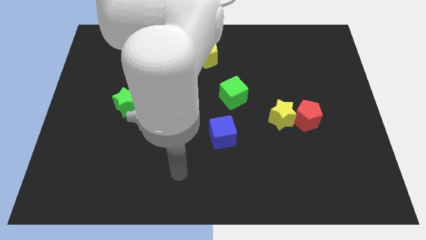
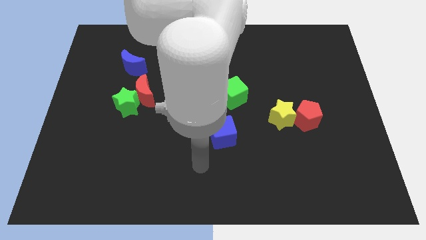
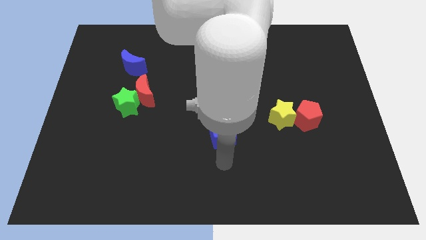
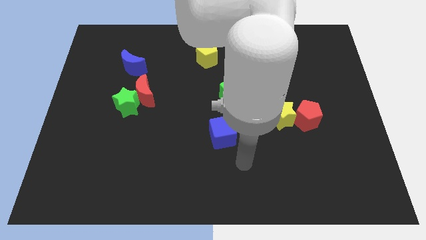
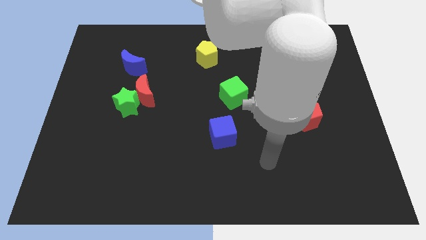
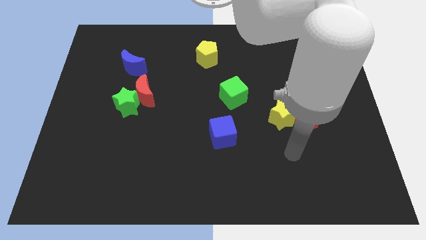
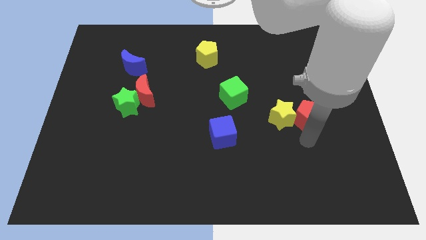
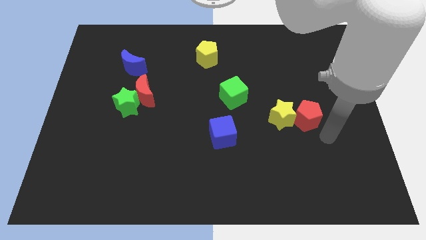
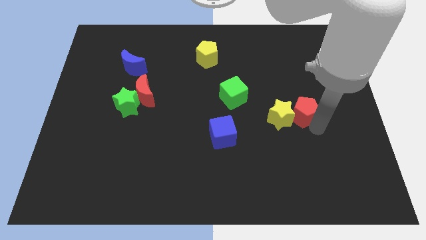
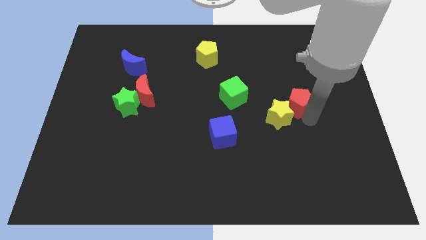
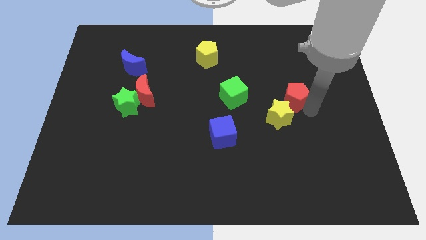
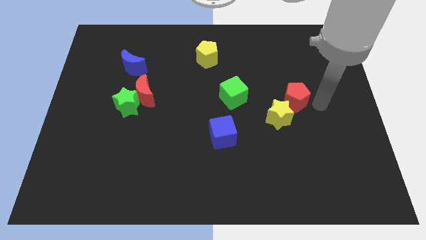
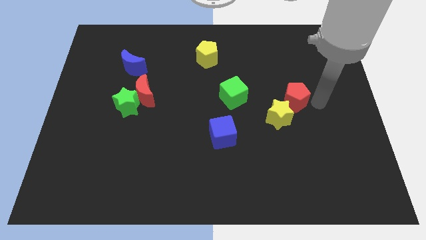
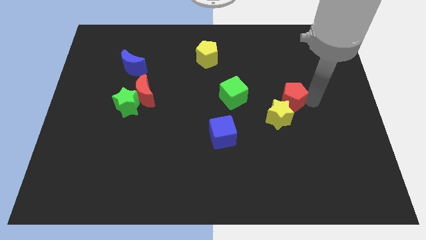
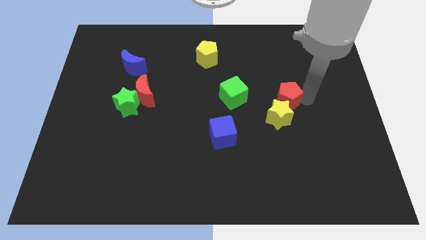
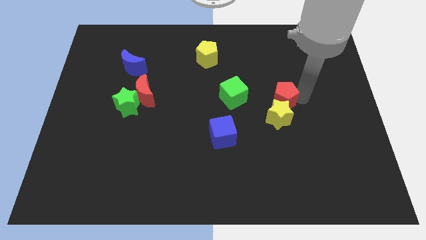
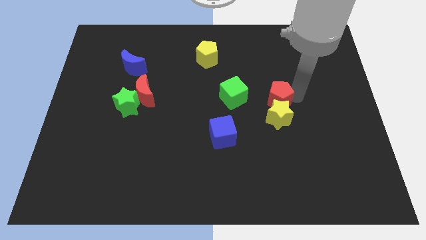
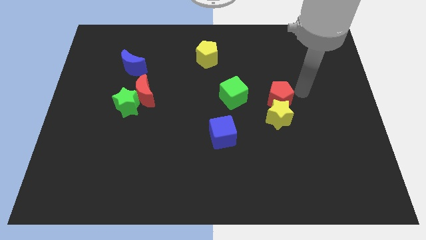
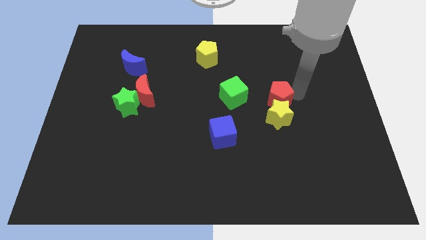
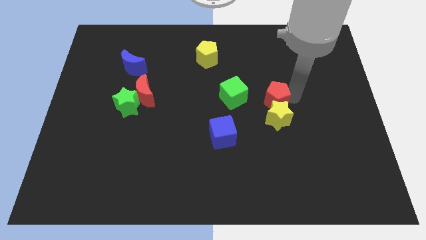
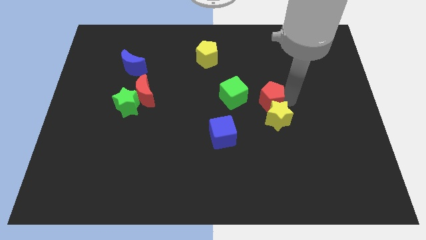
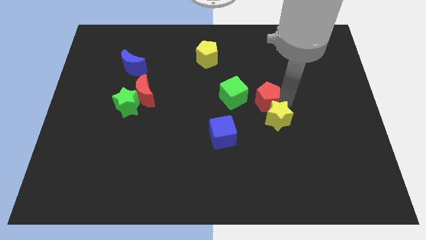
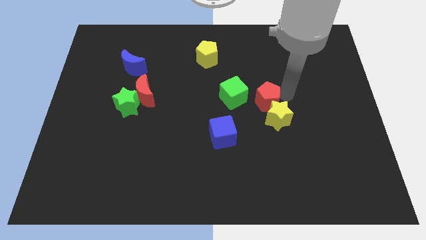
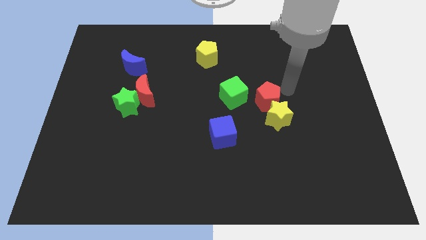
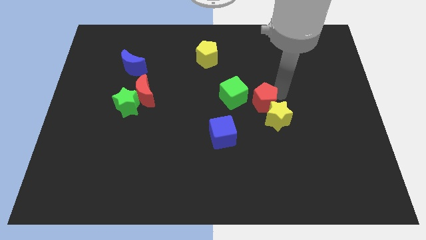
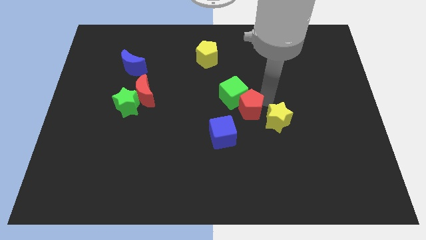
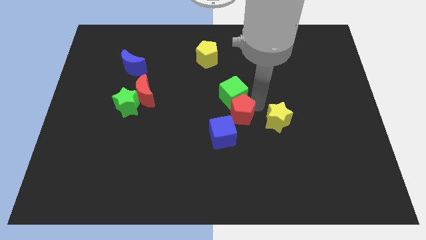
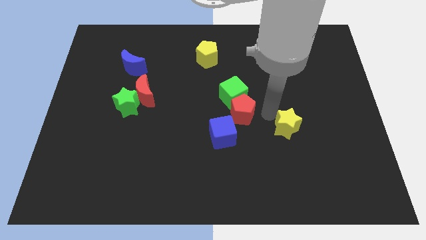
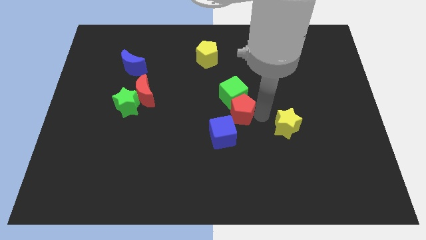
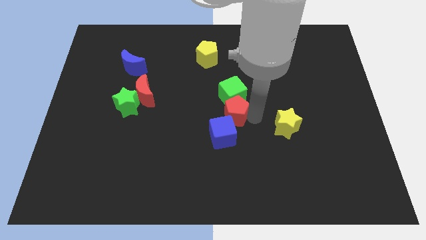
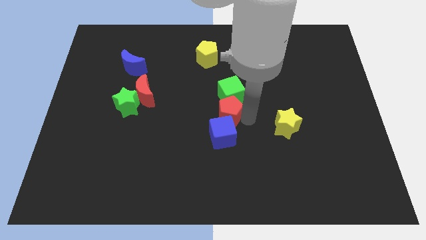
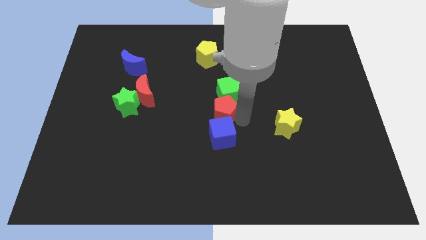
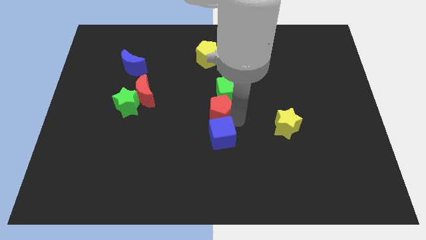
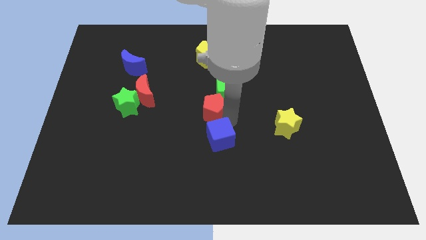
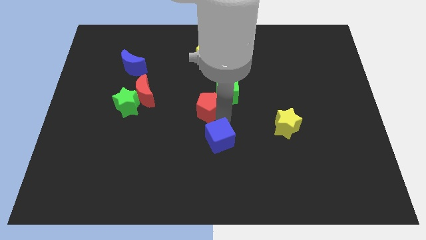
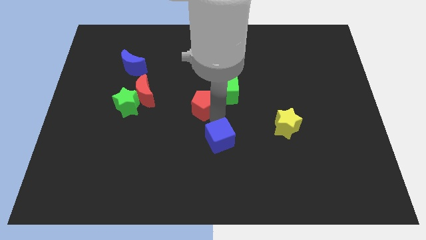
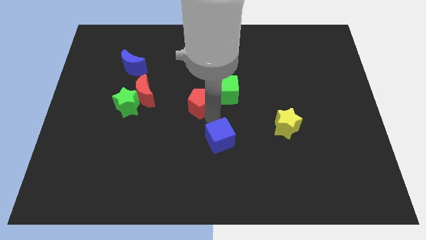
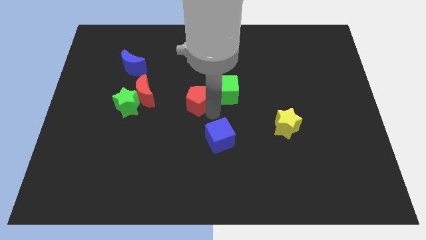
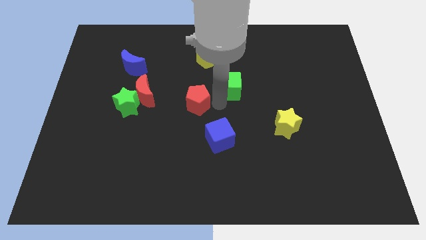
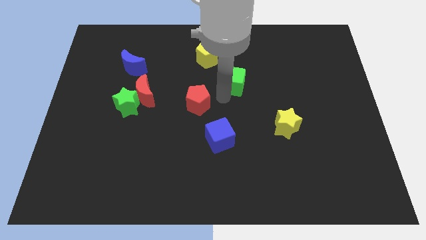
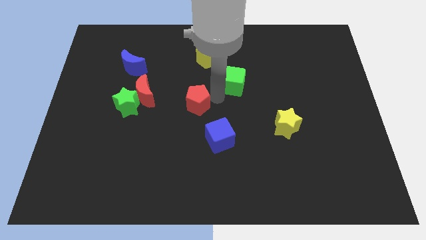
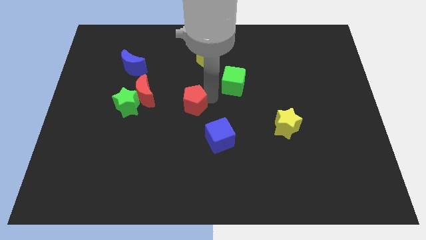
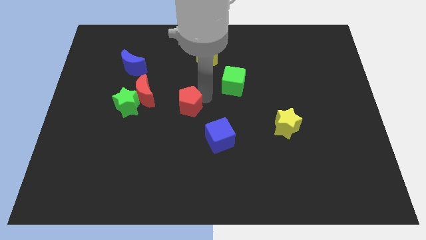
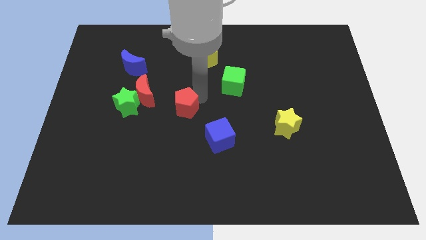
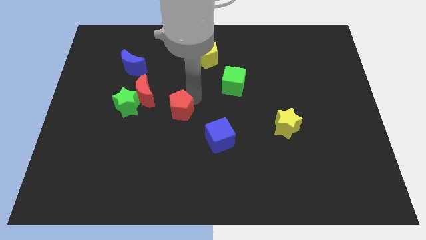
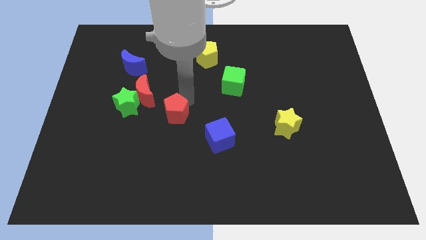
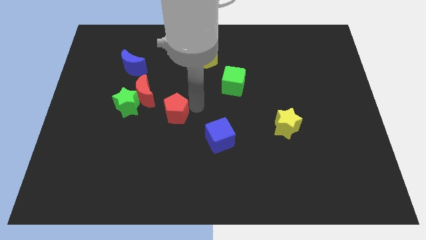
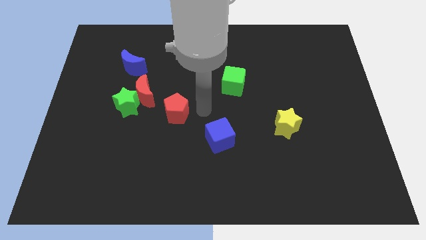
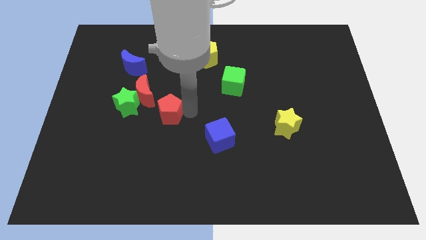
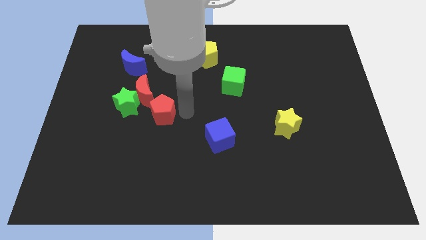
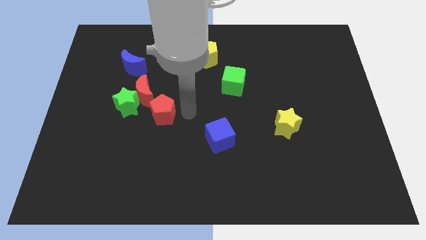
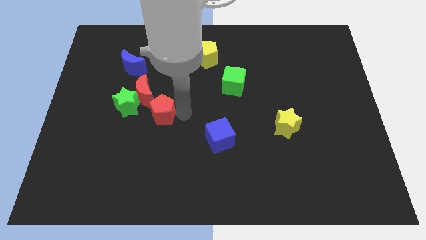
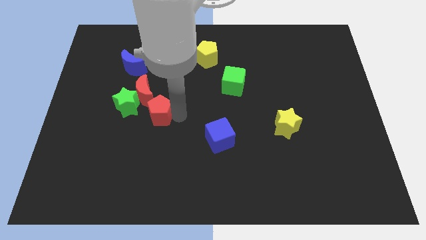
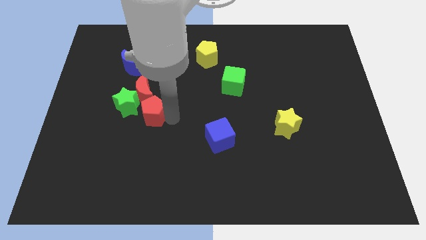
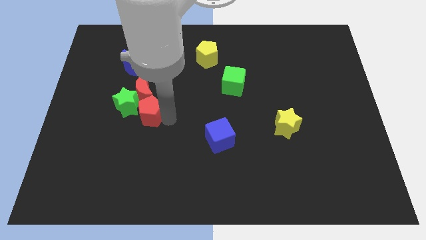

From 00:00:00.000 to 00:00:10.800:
slide the red pentagon towards the green star

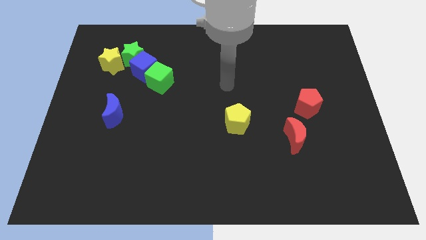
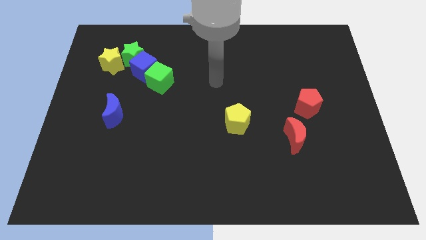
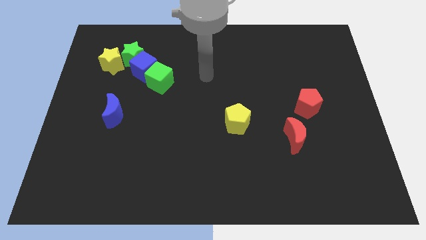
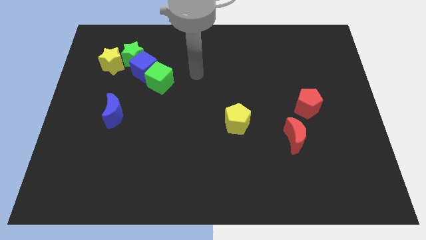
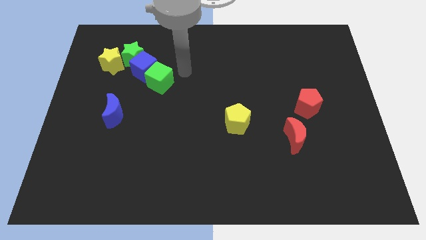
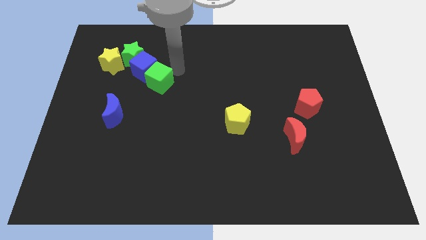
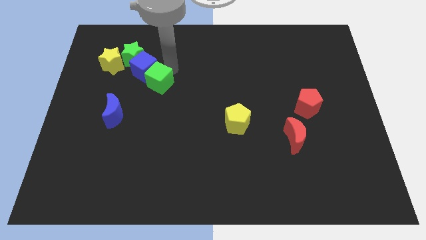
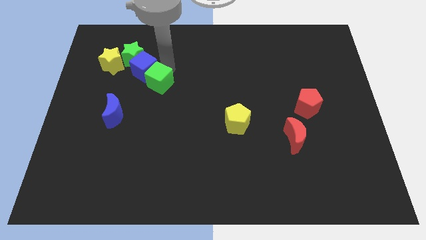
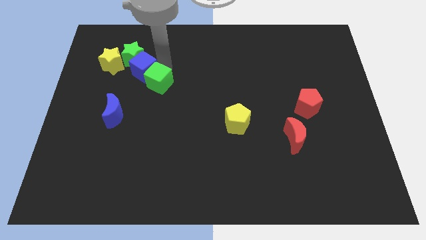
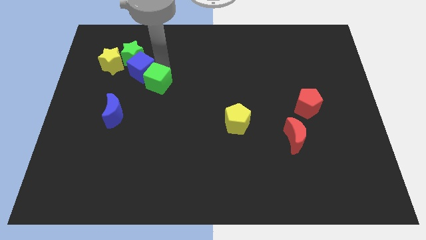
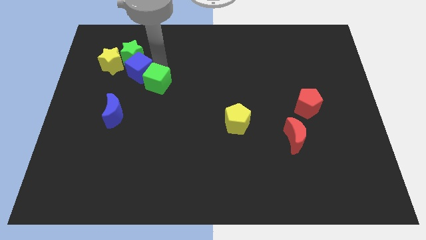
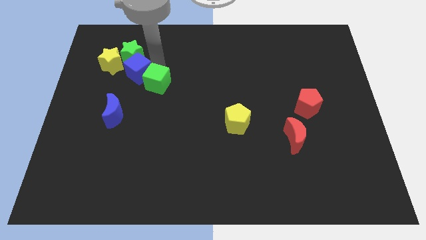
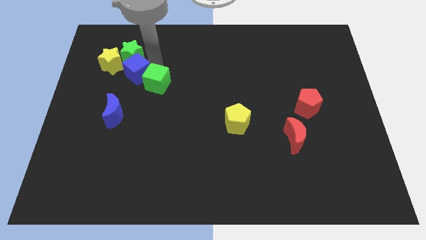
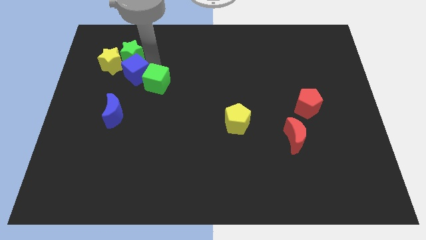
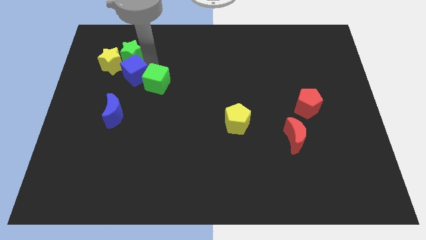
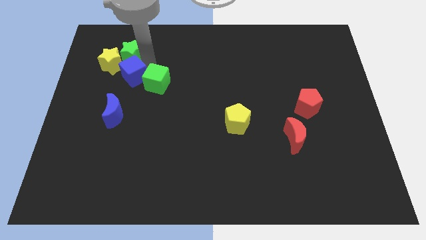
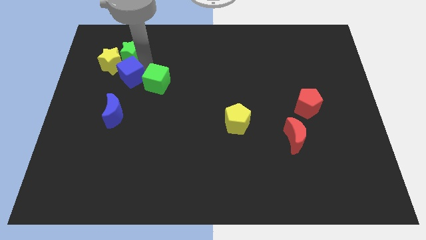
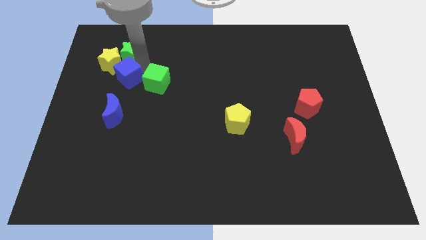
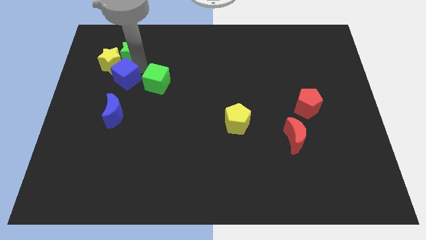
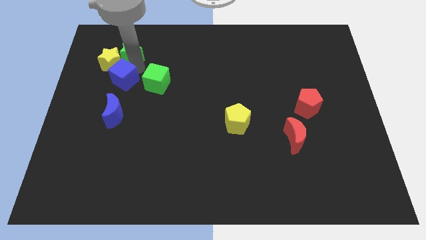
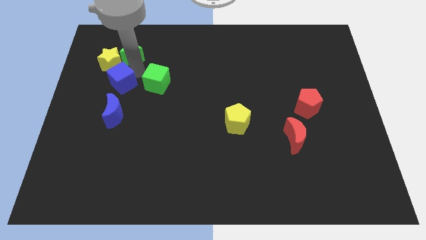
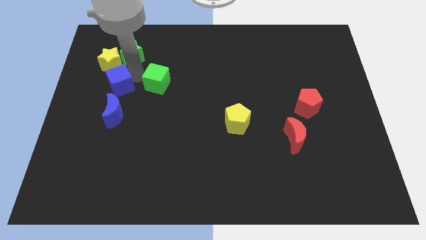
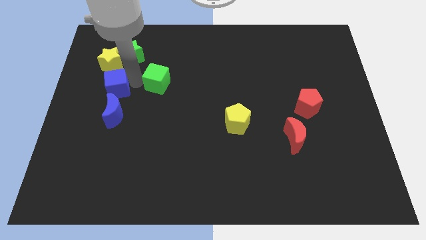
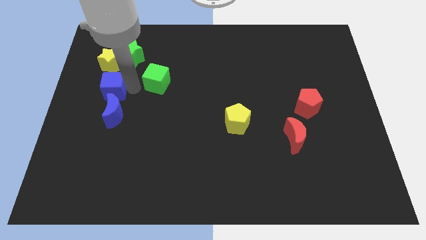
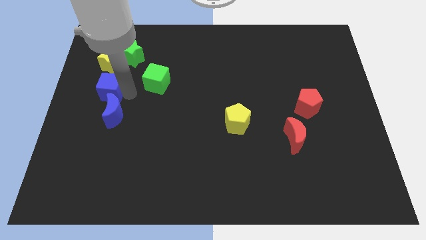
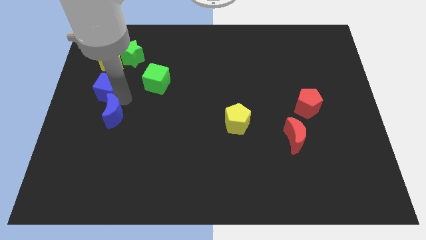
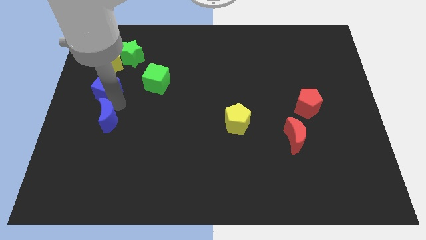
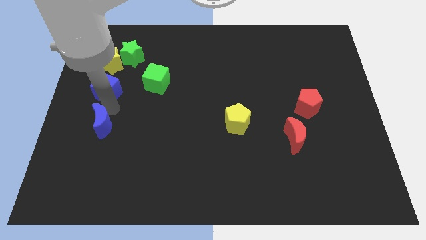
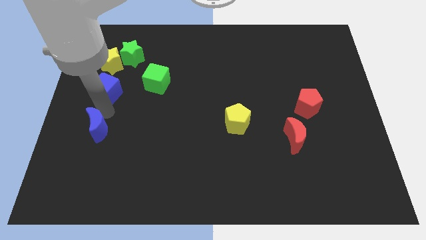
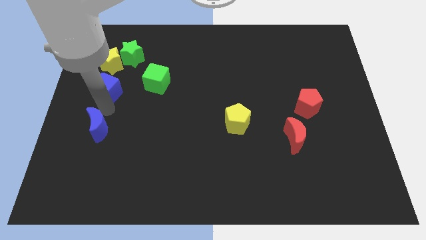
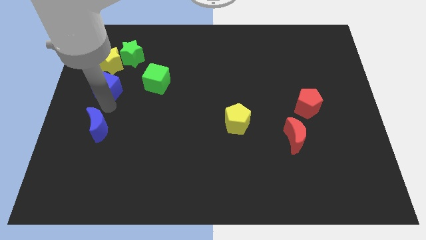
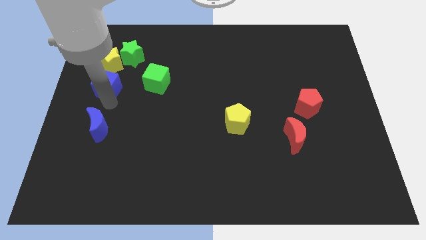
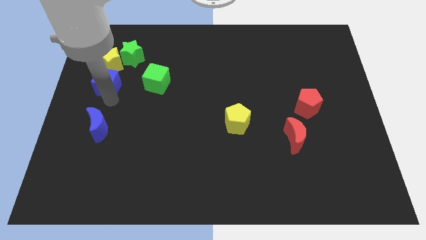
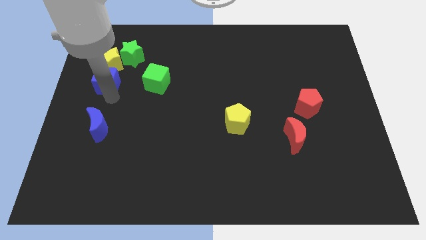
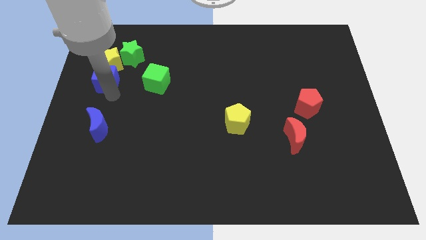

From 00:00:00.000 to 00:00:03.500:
push the blue cube towards the yellow star
